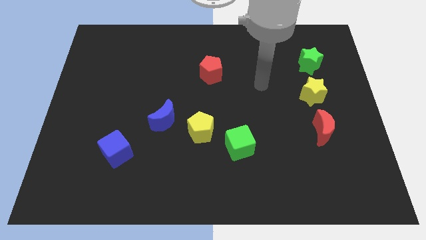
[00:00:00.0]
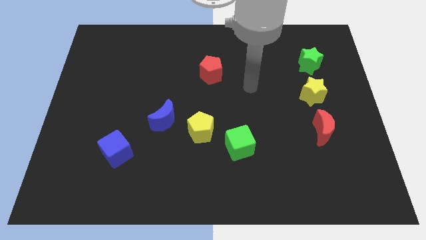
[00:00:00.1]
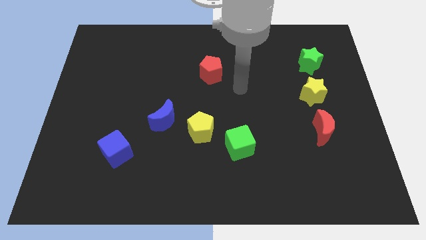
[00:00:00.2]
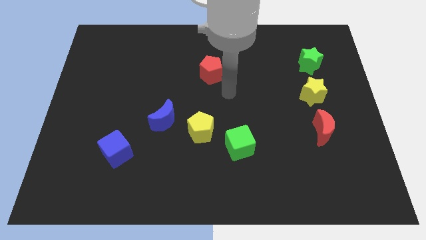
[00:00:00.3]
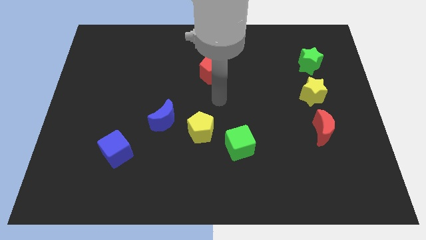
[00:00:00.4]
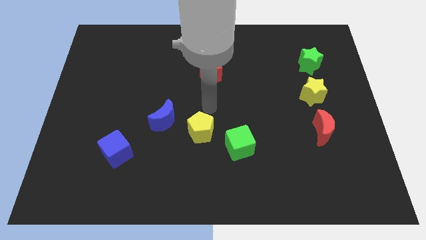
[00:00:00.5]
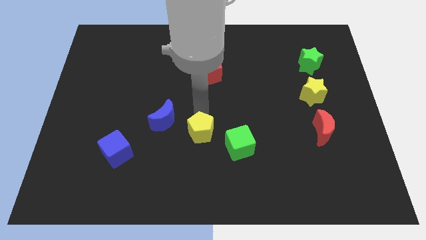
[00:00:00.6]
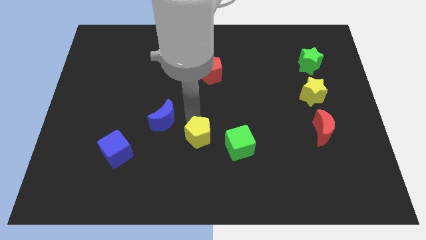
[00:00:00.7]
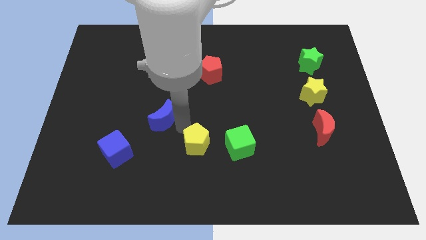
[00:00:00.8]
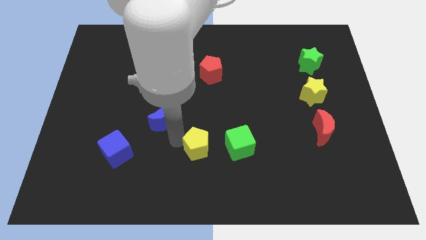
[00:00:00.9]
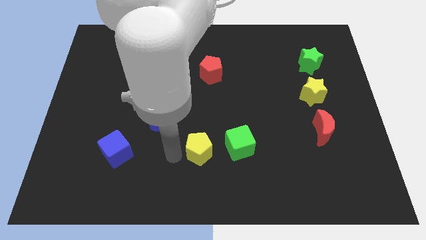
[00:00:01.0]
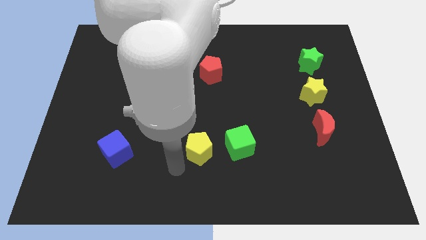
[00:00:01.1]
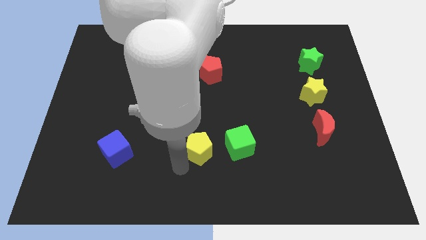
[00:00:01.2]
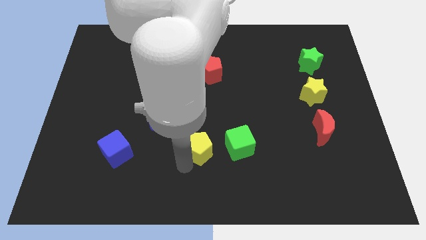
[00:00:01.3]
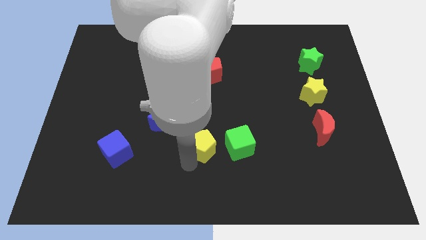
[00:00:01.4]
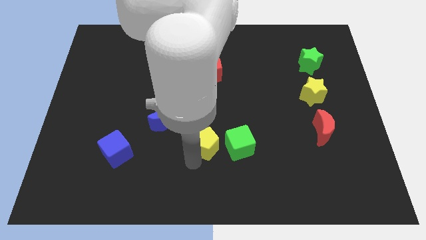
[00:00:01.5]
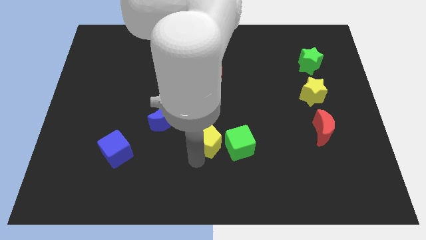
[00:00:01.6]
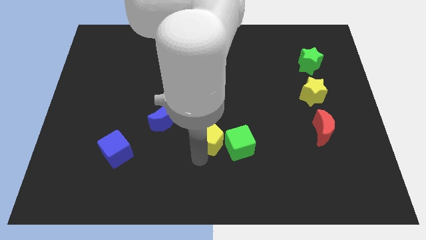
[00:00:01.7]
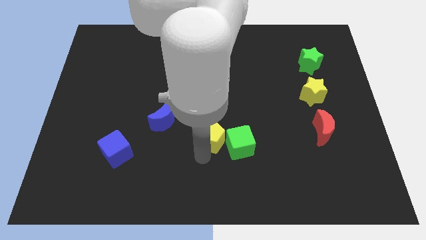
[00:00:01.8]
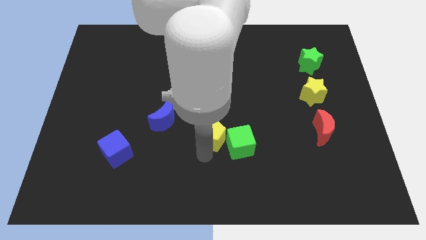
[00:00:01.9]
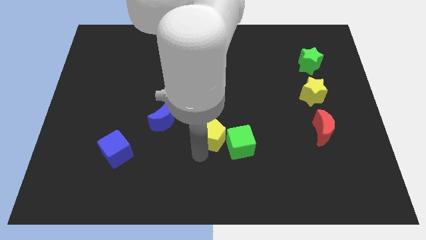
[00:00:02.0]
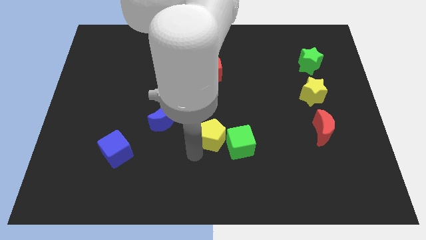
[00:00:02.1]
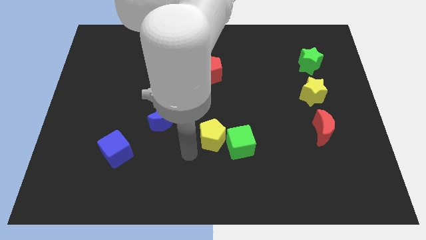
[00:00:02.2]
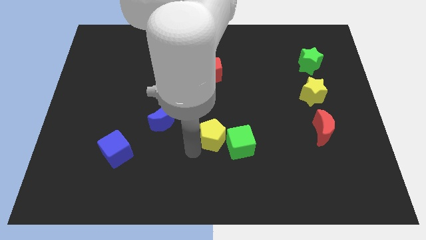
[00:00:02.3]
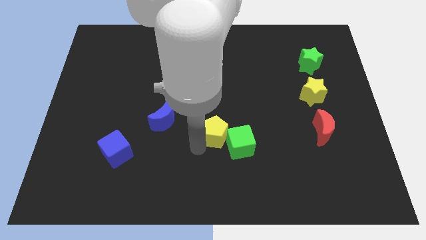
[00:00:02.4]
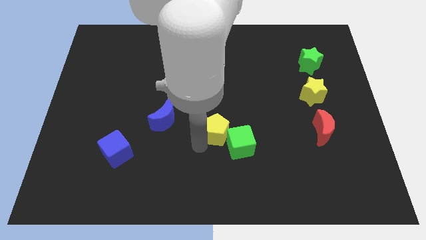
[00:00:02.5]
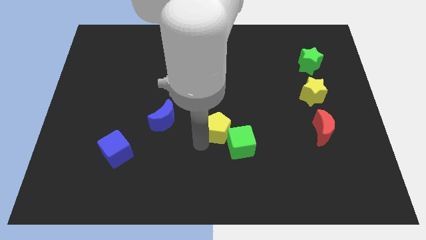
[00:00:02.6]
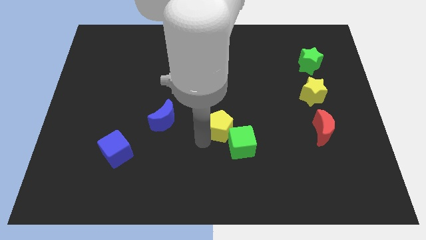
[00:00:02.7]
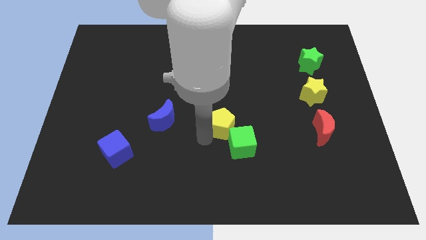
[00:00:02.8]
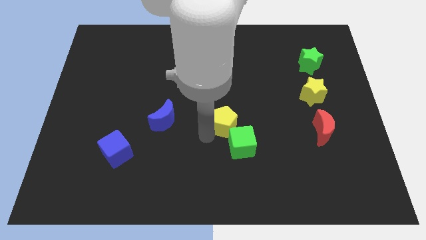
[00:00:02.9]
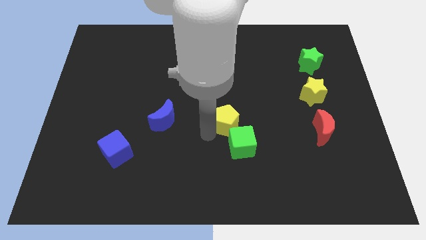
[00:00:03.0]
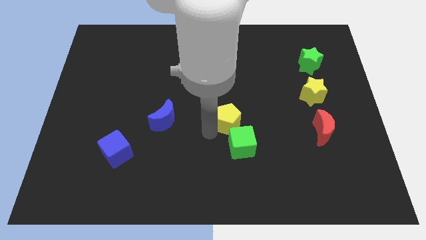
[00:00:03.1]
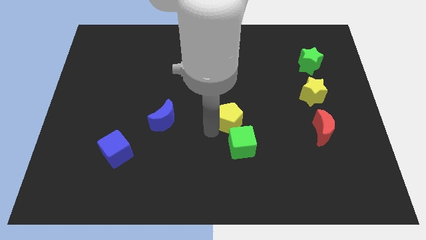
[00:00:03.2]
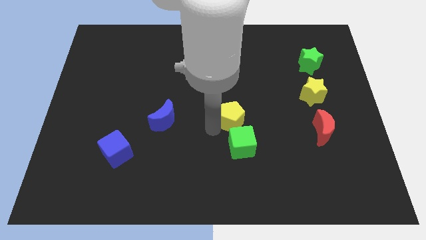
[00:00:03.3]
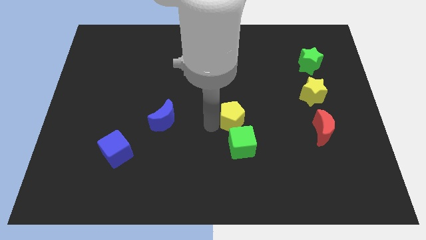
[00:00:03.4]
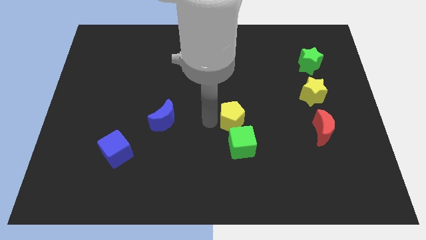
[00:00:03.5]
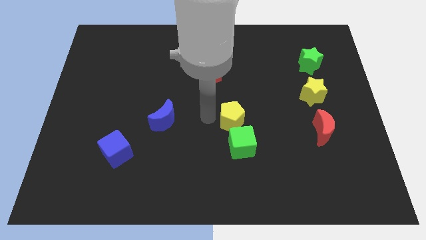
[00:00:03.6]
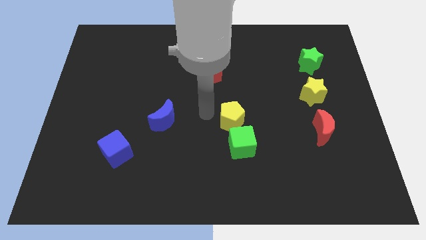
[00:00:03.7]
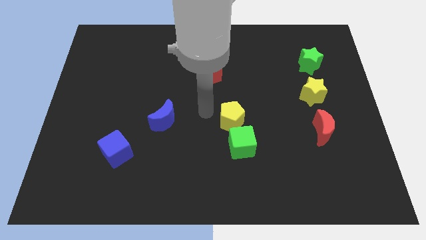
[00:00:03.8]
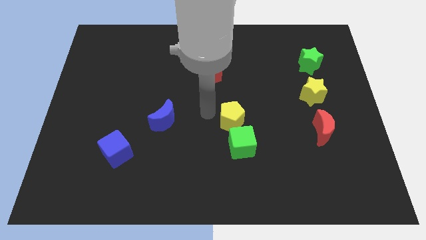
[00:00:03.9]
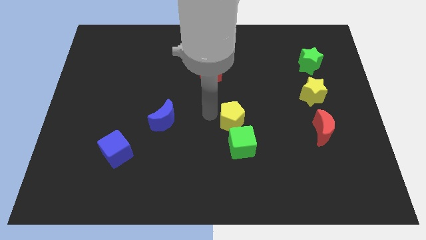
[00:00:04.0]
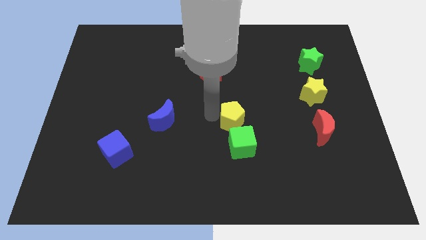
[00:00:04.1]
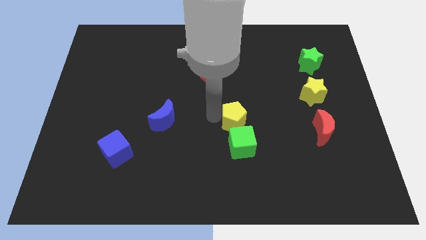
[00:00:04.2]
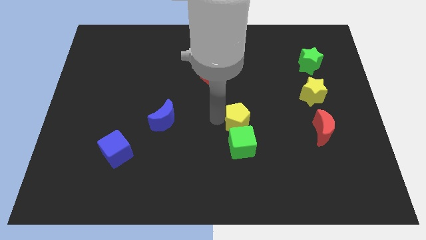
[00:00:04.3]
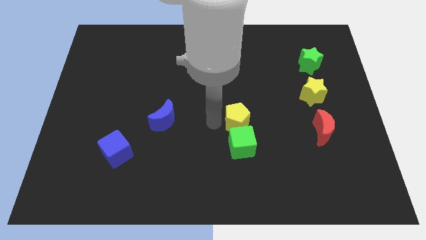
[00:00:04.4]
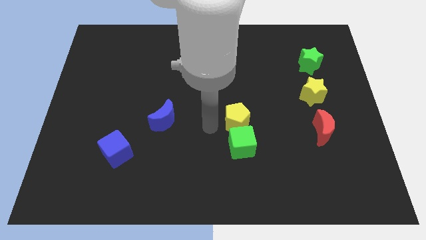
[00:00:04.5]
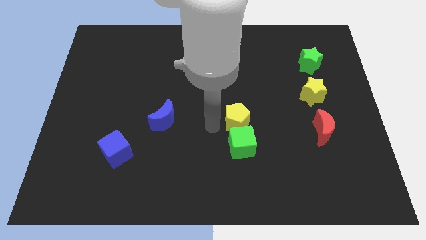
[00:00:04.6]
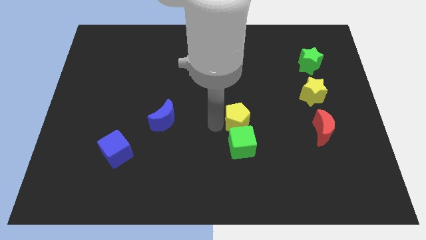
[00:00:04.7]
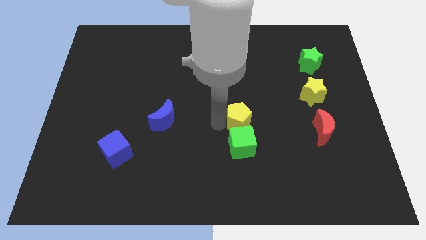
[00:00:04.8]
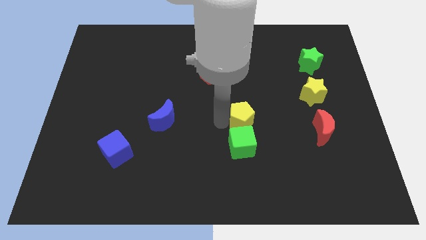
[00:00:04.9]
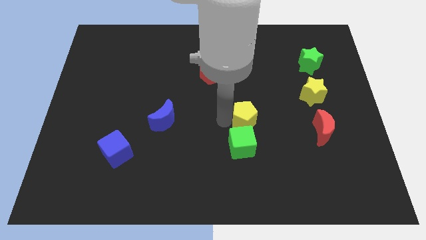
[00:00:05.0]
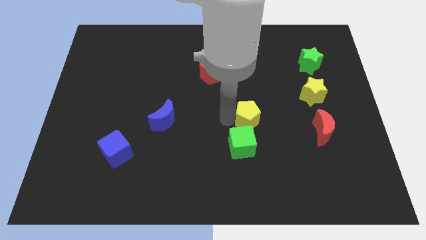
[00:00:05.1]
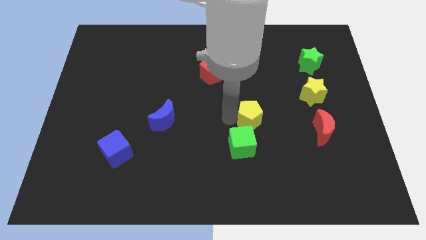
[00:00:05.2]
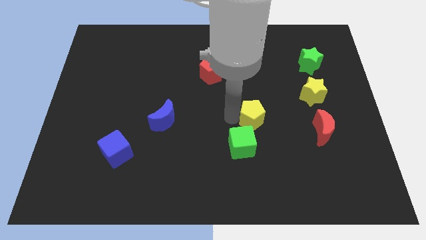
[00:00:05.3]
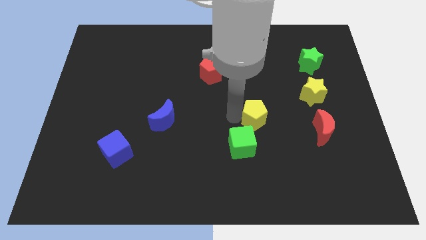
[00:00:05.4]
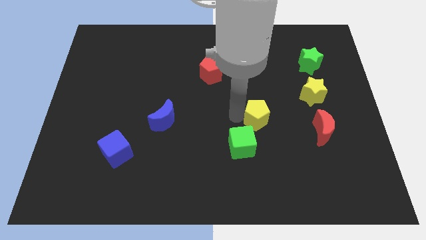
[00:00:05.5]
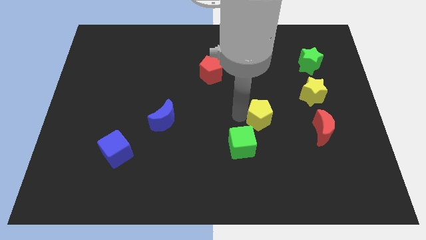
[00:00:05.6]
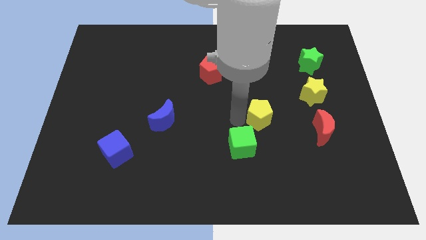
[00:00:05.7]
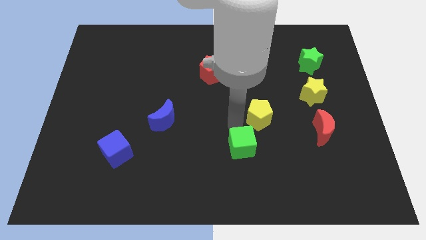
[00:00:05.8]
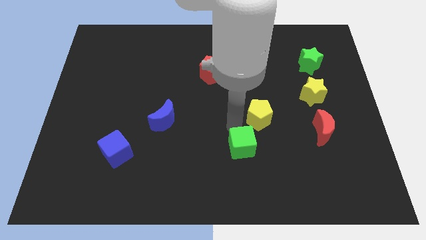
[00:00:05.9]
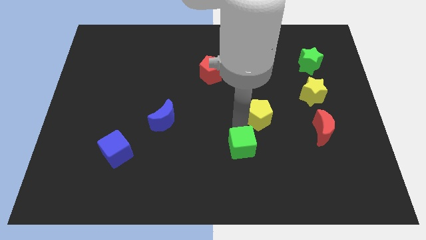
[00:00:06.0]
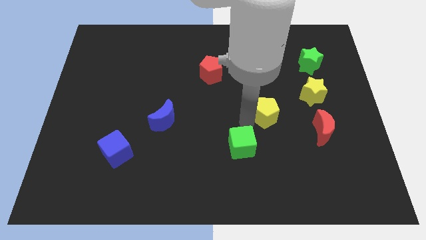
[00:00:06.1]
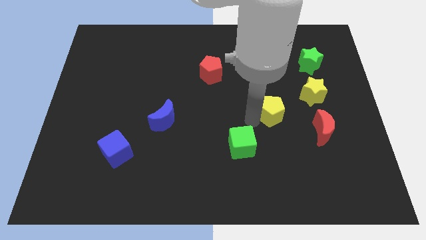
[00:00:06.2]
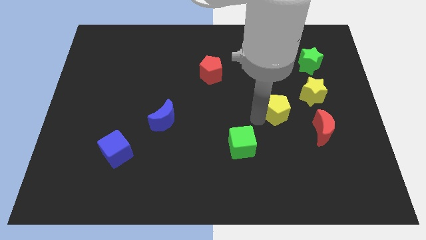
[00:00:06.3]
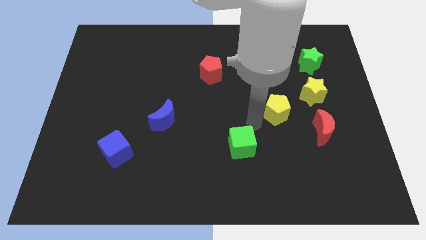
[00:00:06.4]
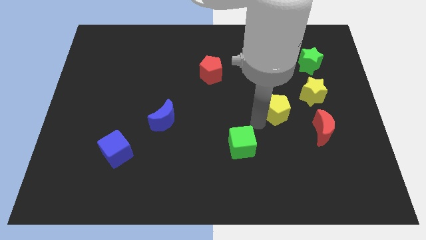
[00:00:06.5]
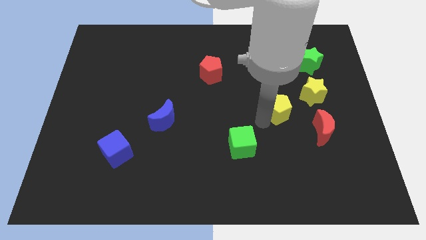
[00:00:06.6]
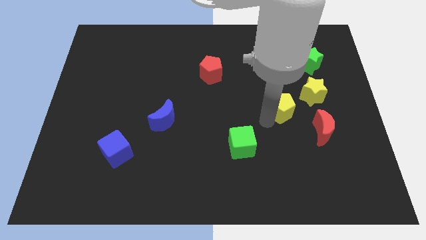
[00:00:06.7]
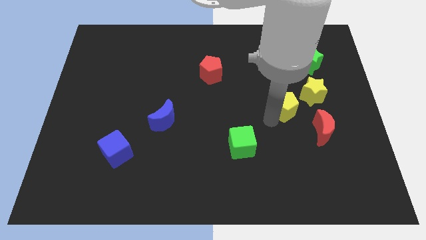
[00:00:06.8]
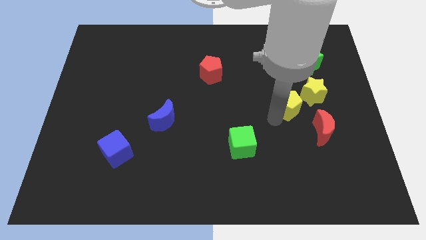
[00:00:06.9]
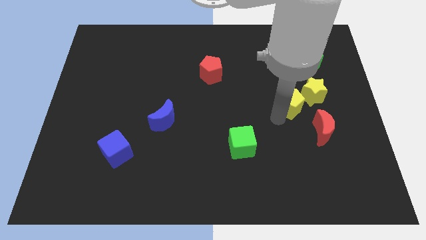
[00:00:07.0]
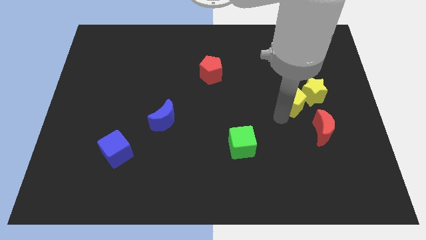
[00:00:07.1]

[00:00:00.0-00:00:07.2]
push the yellow pentagon close to the yellow star
